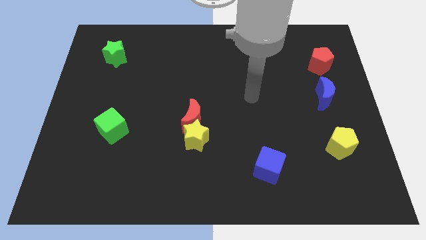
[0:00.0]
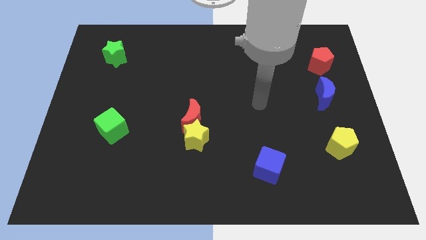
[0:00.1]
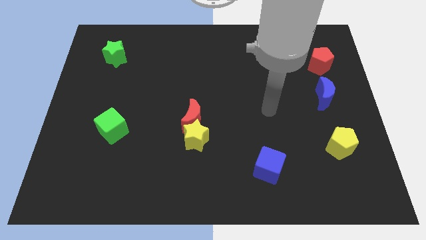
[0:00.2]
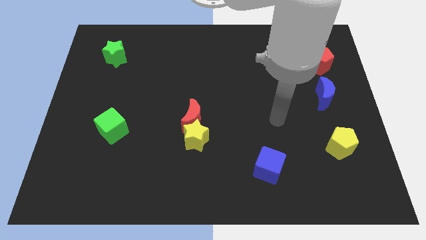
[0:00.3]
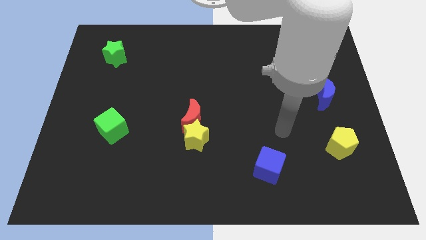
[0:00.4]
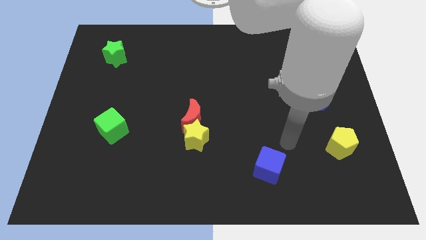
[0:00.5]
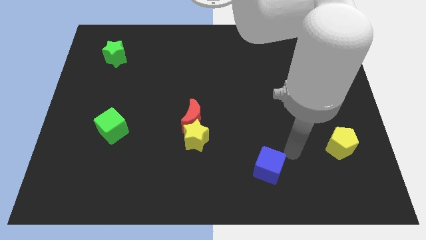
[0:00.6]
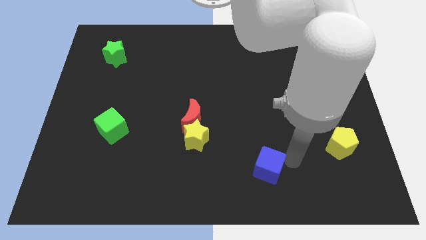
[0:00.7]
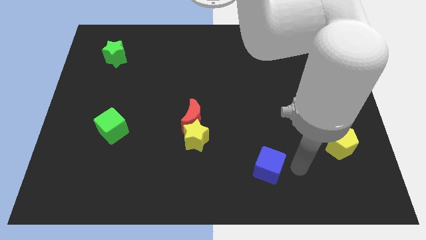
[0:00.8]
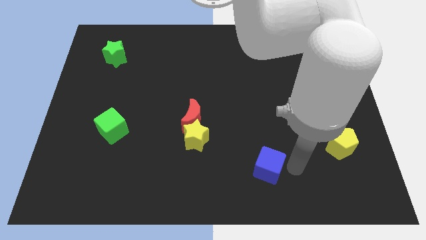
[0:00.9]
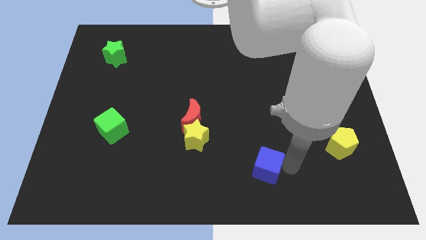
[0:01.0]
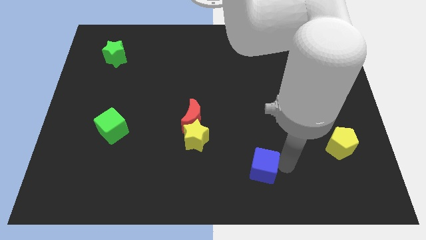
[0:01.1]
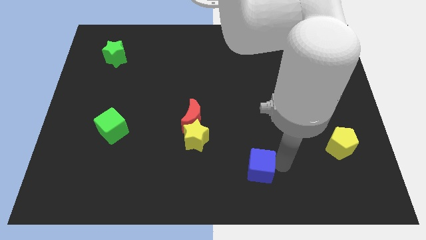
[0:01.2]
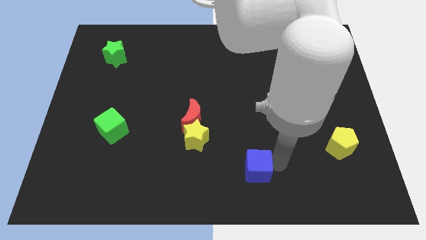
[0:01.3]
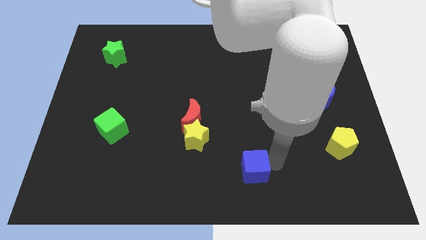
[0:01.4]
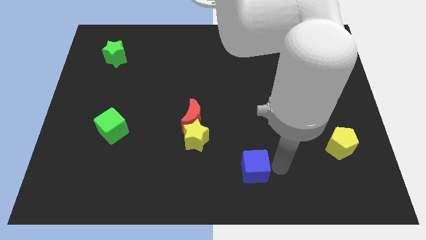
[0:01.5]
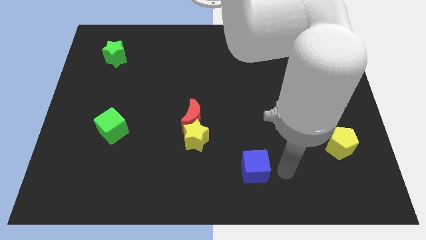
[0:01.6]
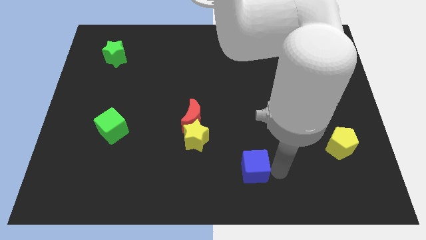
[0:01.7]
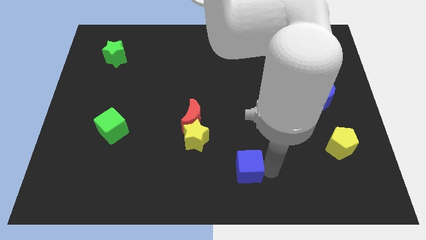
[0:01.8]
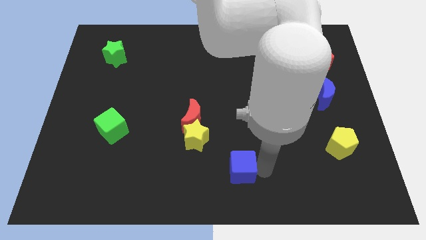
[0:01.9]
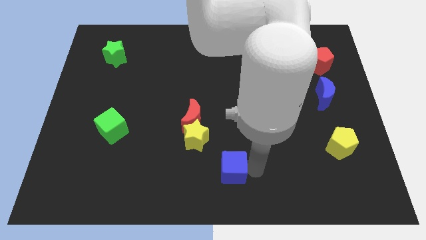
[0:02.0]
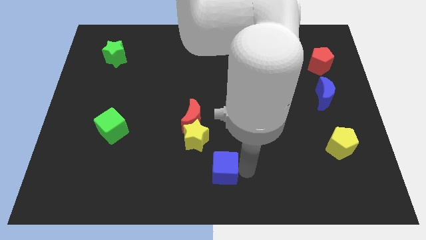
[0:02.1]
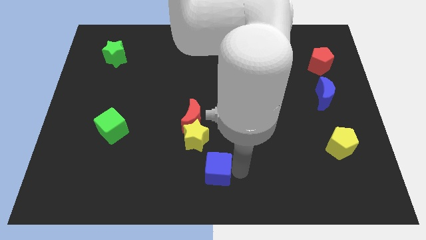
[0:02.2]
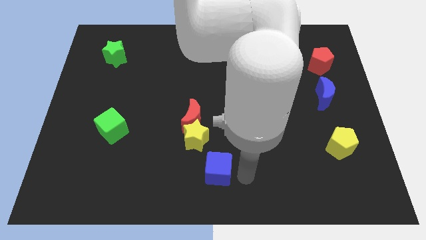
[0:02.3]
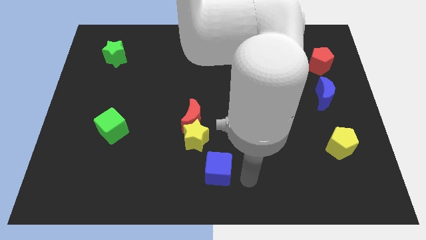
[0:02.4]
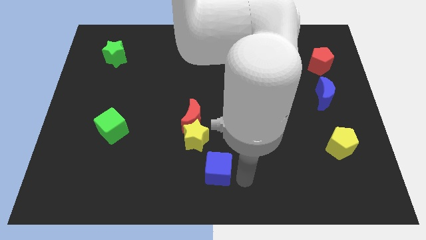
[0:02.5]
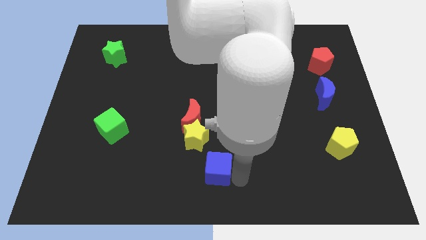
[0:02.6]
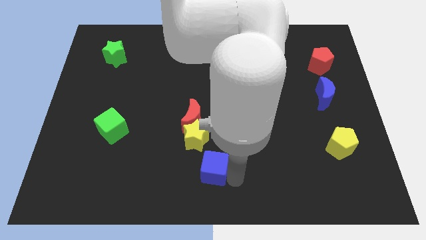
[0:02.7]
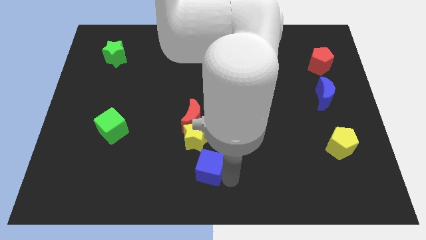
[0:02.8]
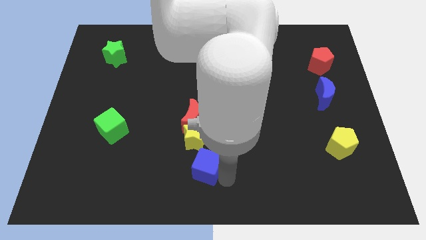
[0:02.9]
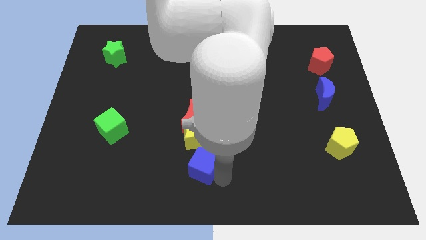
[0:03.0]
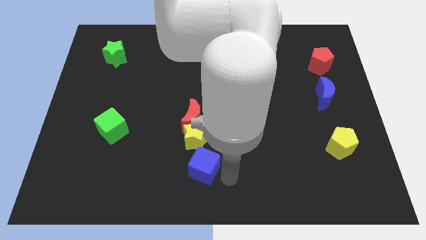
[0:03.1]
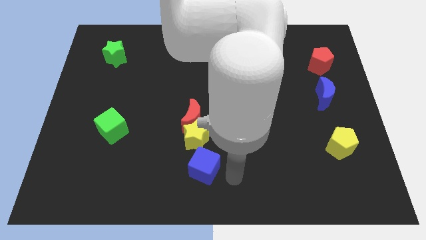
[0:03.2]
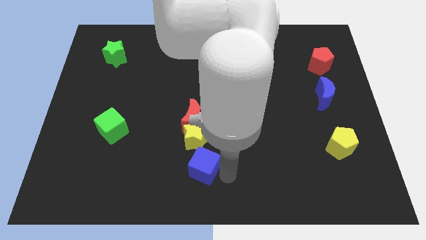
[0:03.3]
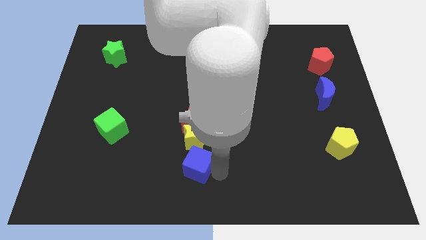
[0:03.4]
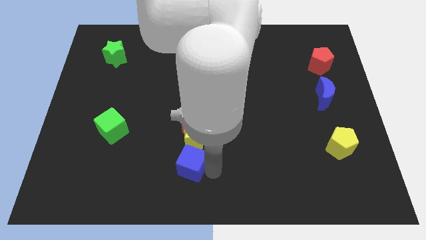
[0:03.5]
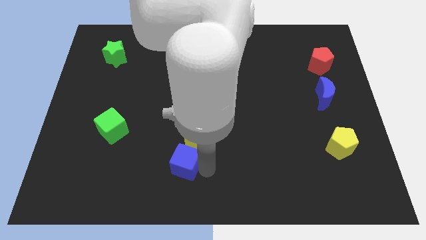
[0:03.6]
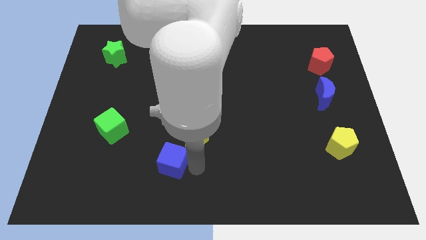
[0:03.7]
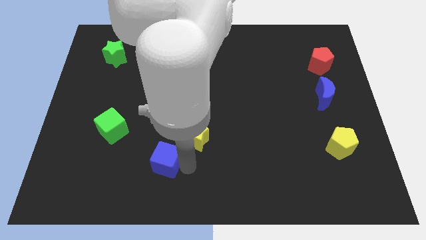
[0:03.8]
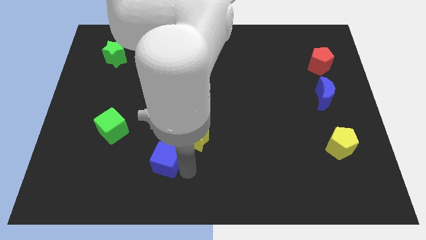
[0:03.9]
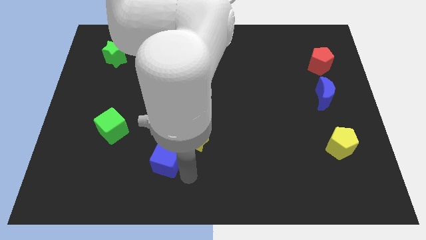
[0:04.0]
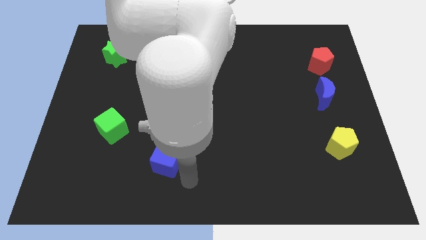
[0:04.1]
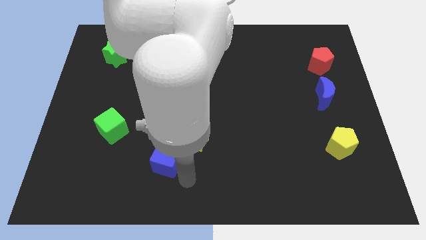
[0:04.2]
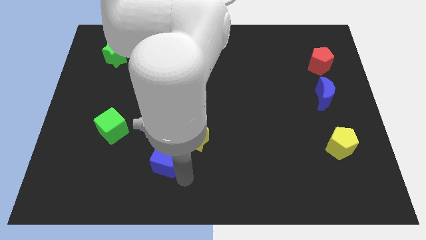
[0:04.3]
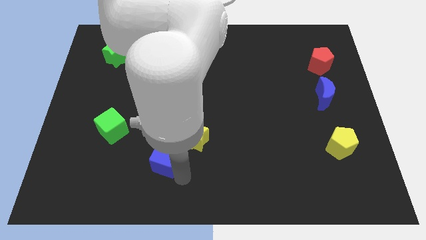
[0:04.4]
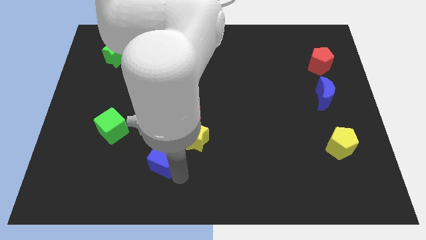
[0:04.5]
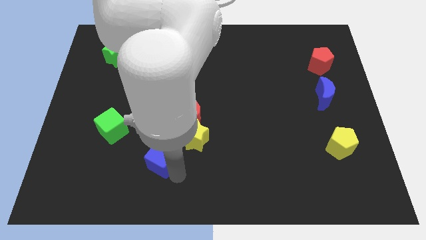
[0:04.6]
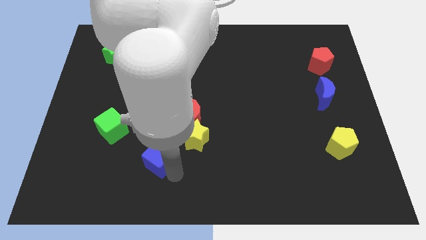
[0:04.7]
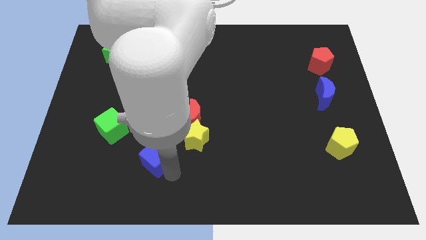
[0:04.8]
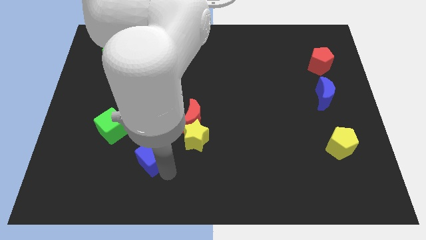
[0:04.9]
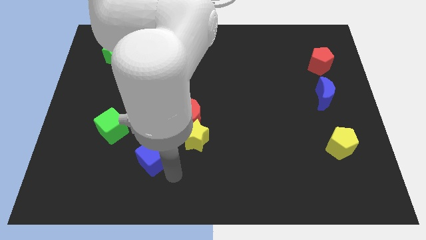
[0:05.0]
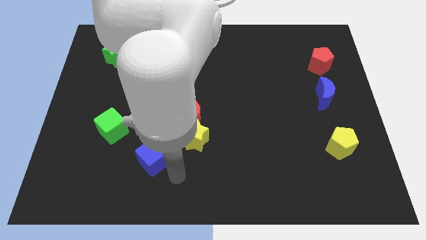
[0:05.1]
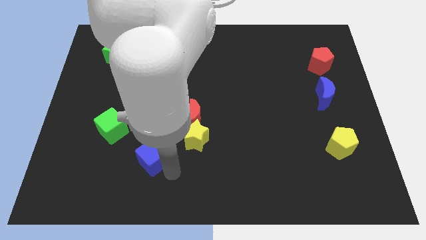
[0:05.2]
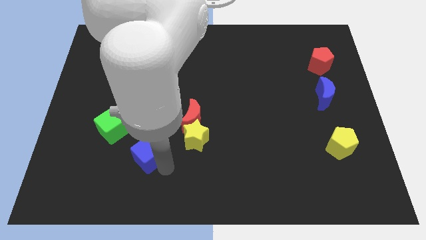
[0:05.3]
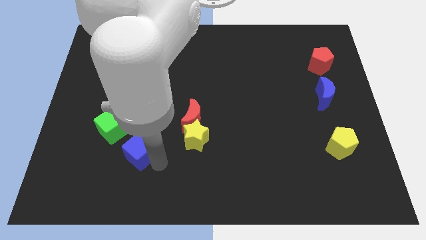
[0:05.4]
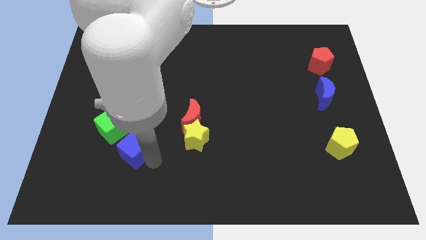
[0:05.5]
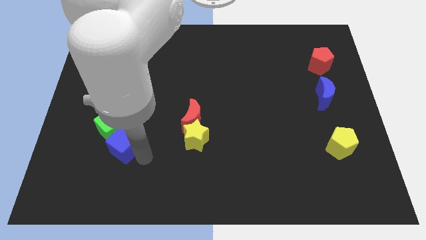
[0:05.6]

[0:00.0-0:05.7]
move the blue cube towards the green cube

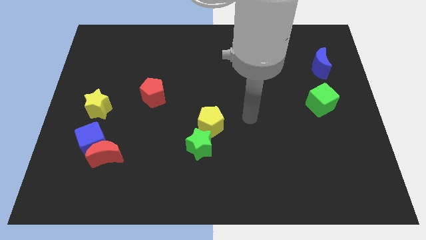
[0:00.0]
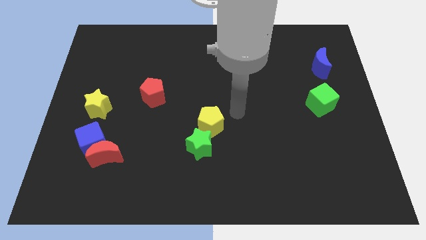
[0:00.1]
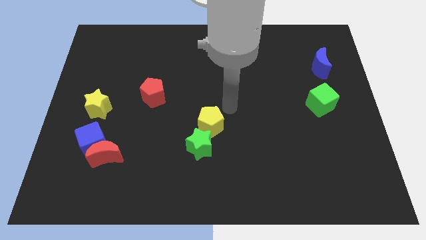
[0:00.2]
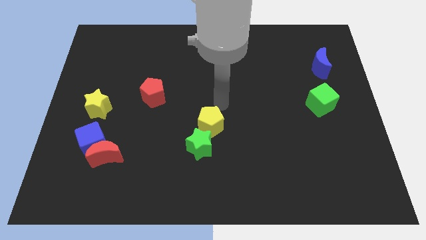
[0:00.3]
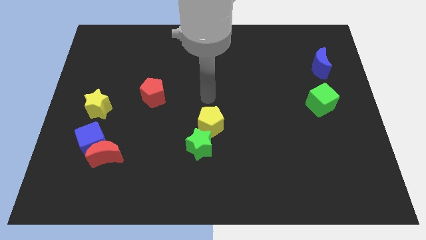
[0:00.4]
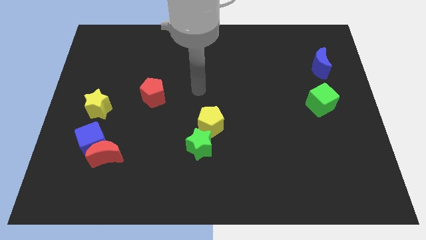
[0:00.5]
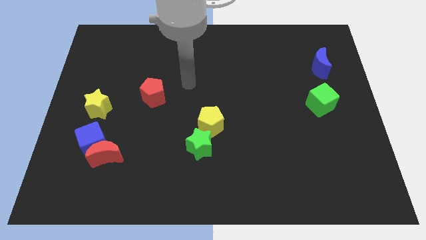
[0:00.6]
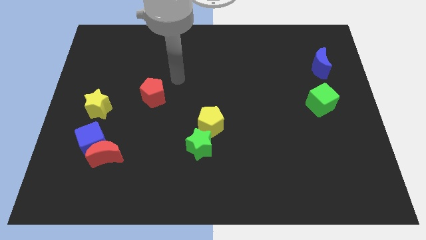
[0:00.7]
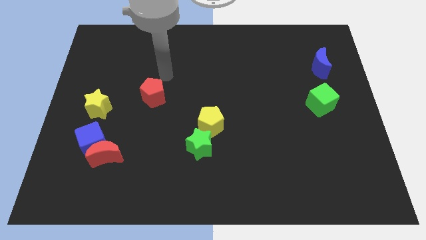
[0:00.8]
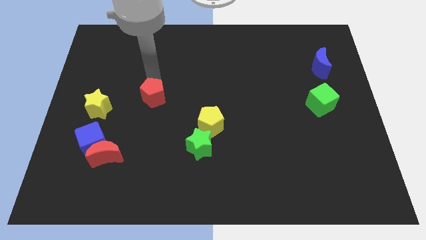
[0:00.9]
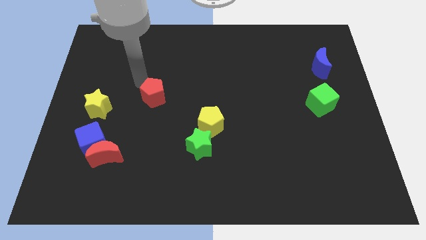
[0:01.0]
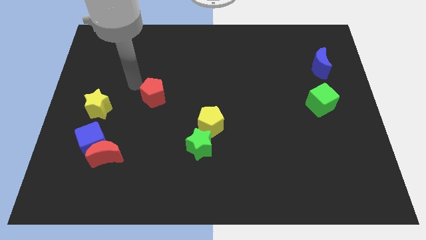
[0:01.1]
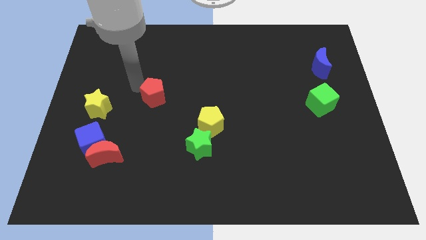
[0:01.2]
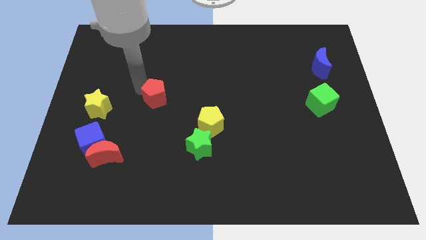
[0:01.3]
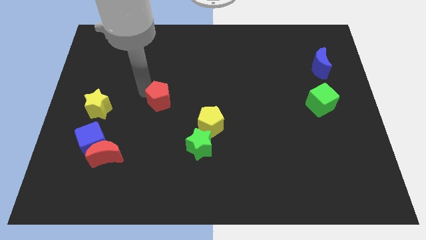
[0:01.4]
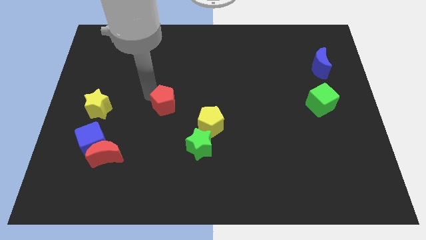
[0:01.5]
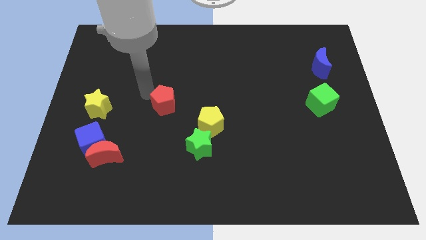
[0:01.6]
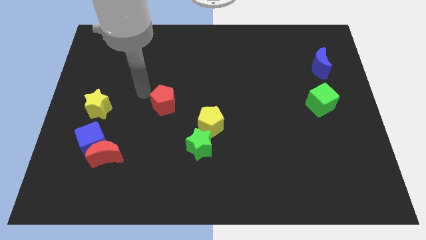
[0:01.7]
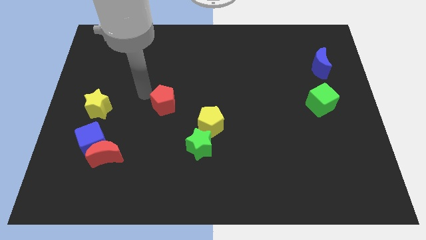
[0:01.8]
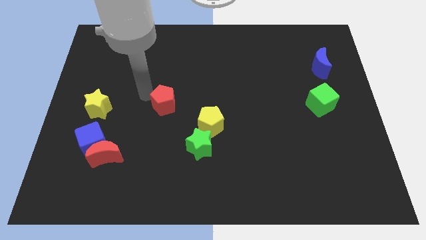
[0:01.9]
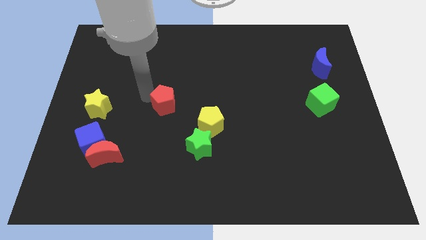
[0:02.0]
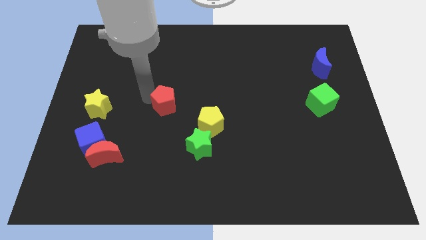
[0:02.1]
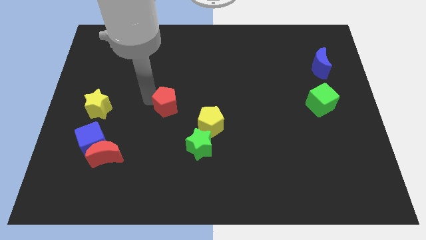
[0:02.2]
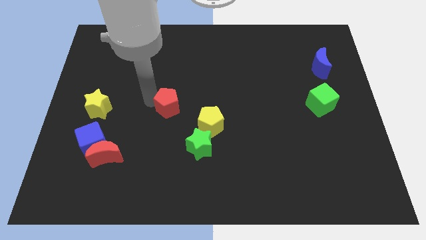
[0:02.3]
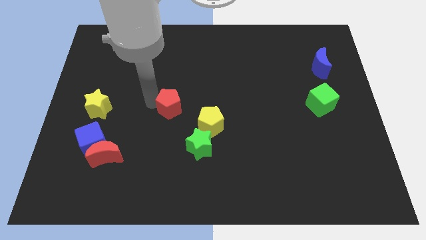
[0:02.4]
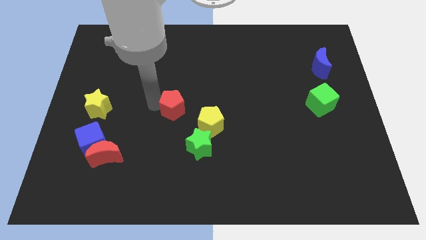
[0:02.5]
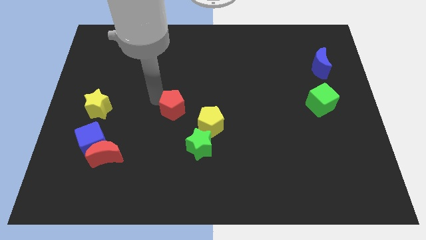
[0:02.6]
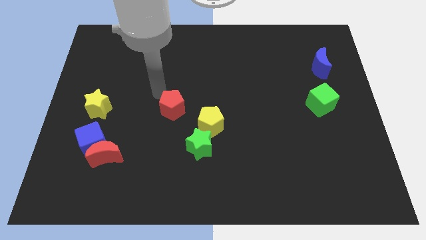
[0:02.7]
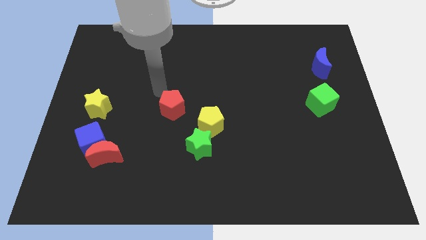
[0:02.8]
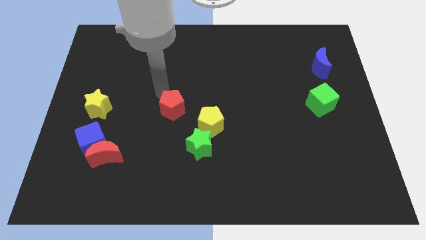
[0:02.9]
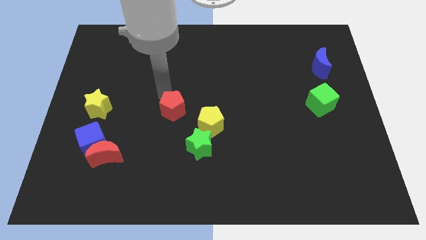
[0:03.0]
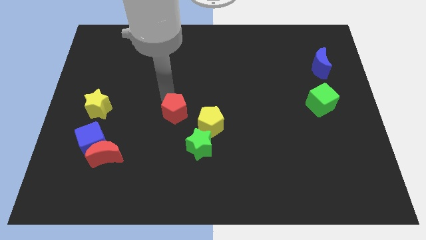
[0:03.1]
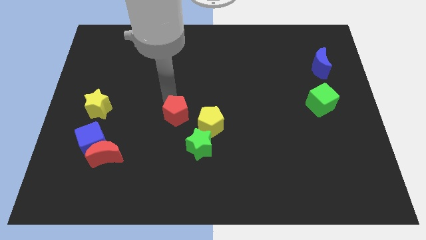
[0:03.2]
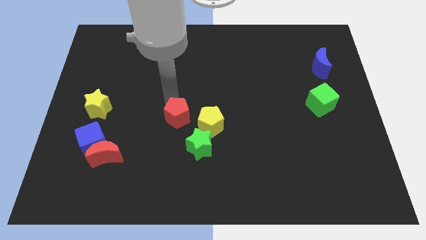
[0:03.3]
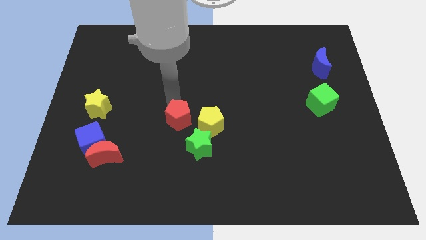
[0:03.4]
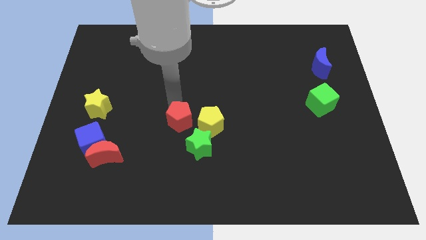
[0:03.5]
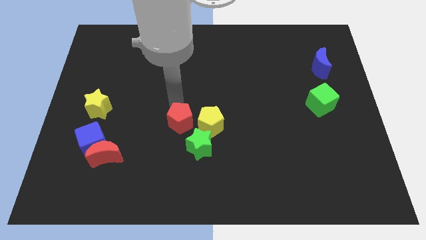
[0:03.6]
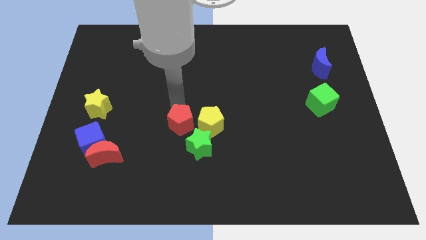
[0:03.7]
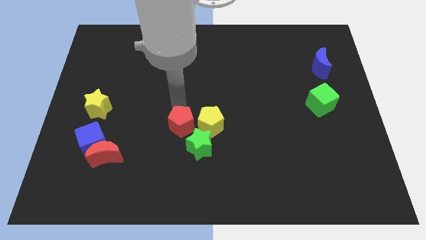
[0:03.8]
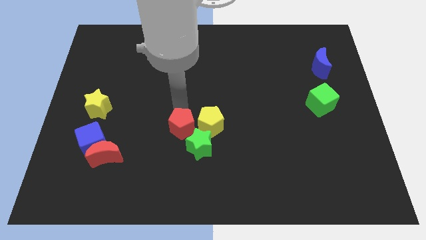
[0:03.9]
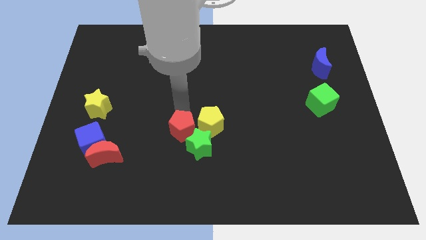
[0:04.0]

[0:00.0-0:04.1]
put the red pentagon to the green star
